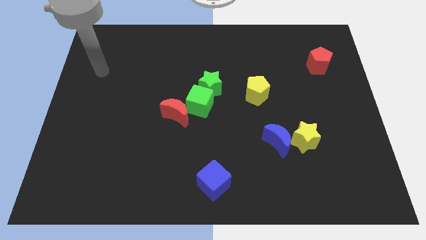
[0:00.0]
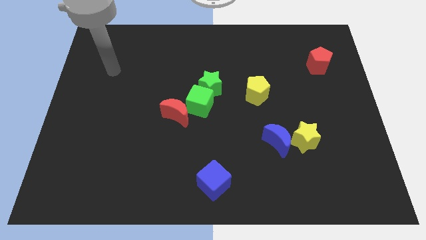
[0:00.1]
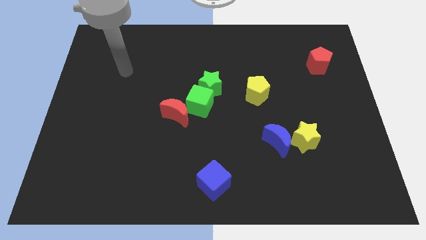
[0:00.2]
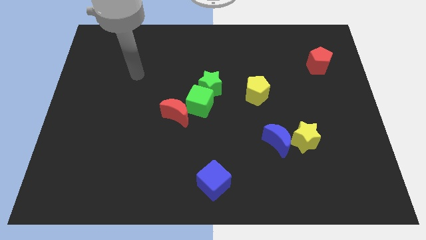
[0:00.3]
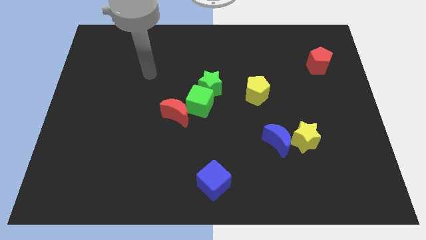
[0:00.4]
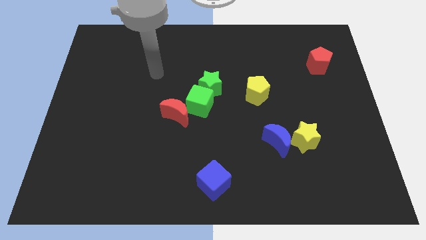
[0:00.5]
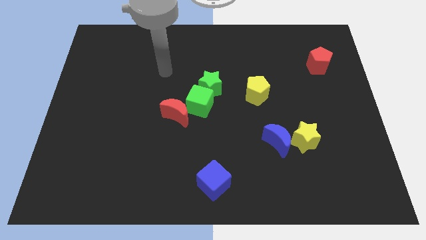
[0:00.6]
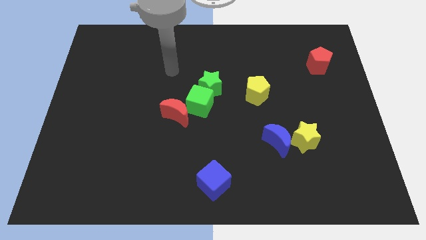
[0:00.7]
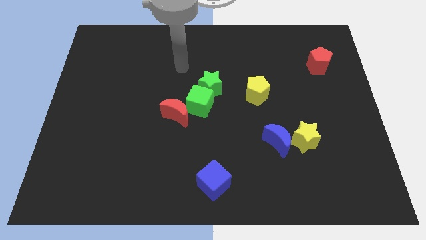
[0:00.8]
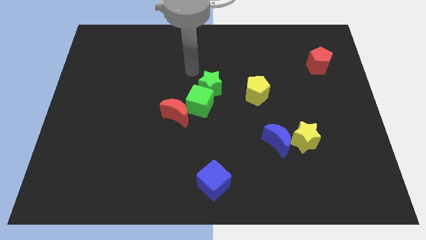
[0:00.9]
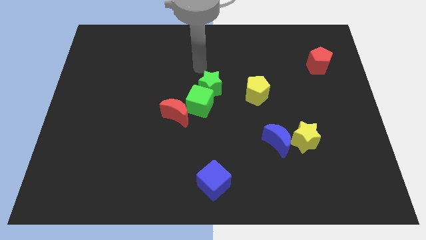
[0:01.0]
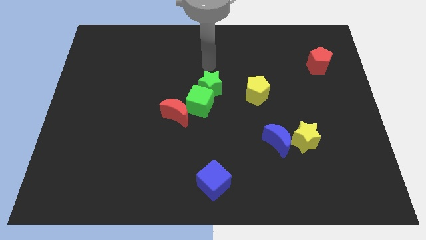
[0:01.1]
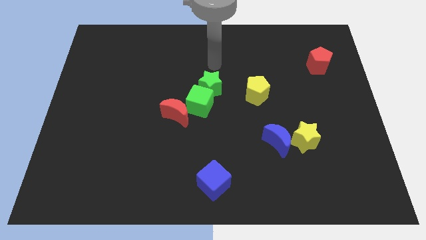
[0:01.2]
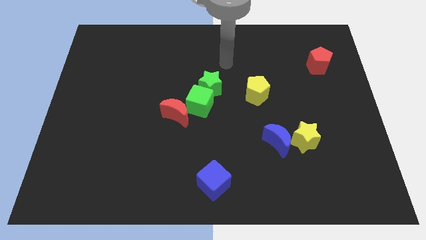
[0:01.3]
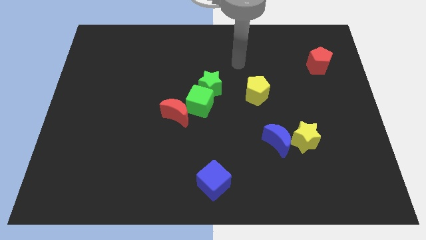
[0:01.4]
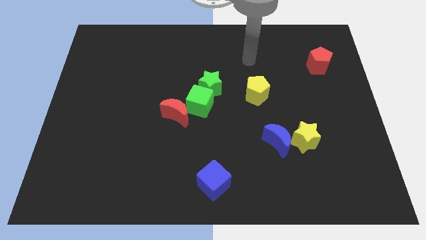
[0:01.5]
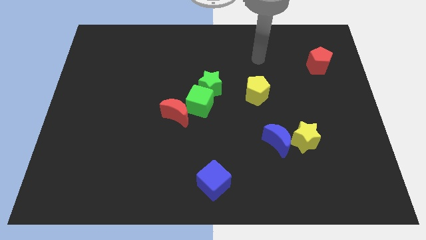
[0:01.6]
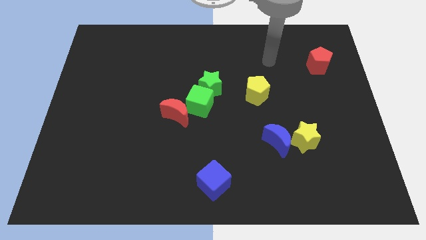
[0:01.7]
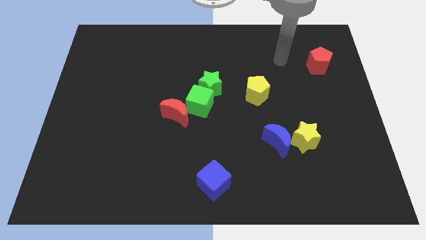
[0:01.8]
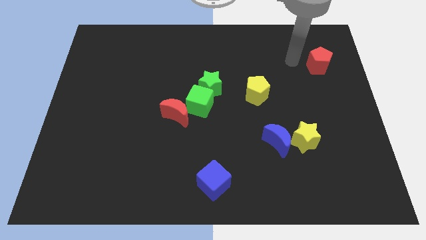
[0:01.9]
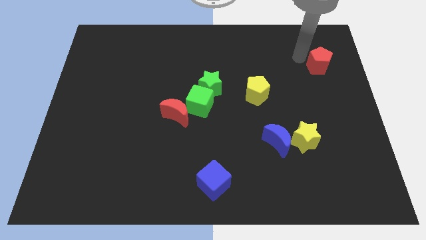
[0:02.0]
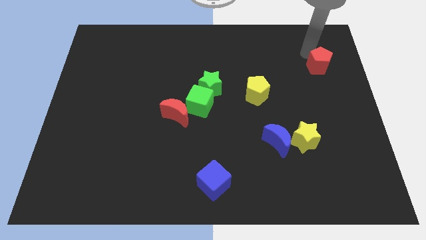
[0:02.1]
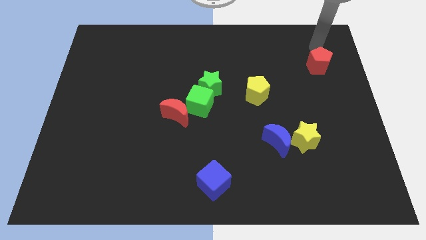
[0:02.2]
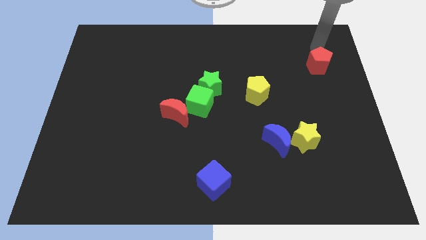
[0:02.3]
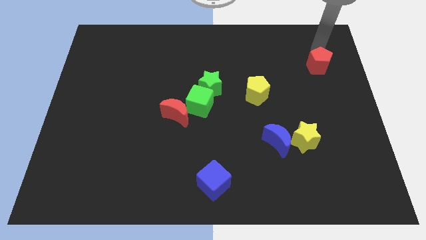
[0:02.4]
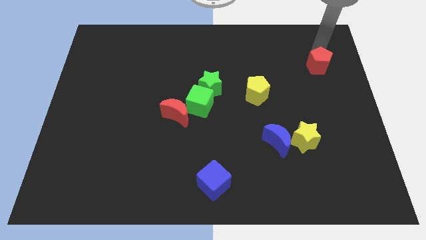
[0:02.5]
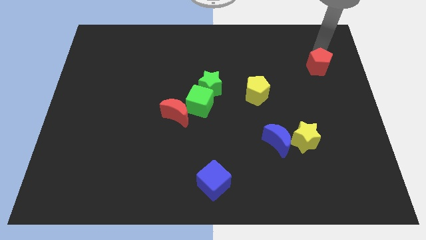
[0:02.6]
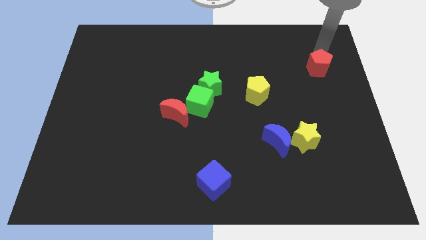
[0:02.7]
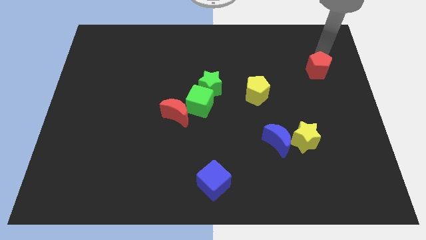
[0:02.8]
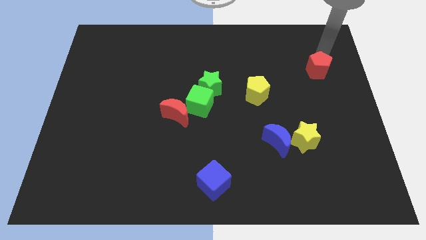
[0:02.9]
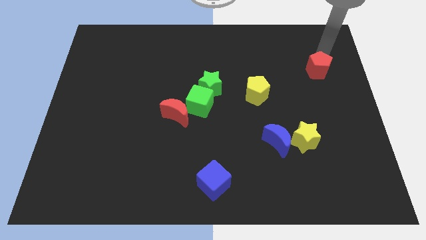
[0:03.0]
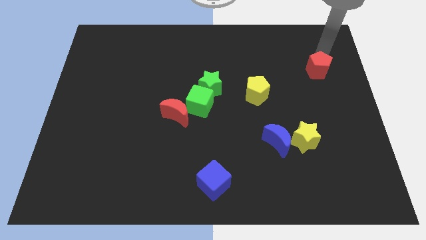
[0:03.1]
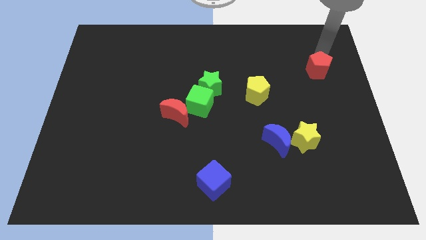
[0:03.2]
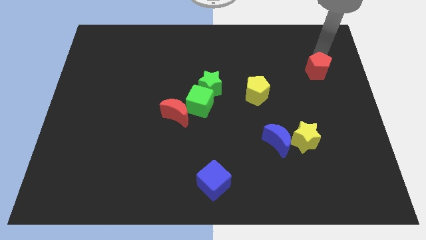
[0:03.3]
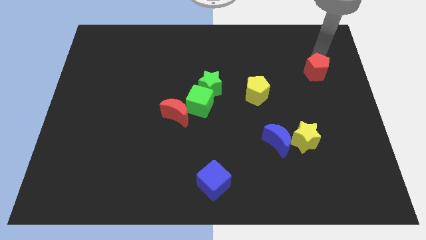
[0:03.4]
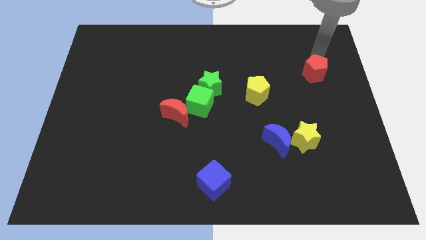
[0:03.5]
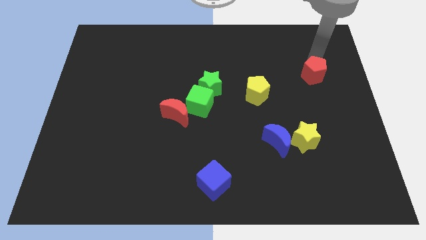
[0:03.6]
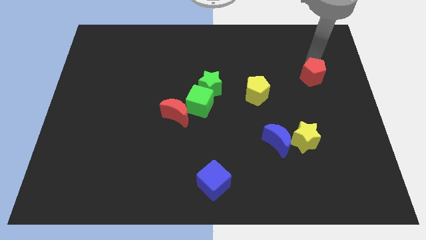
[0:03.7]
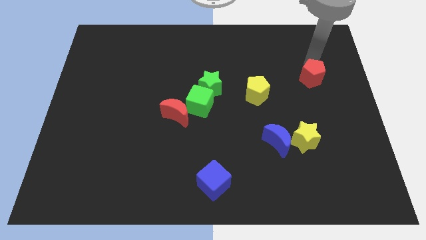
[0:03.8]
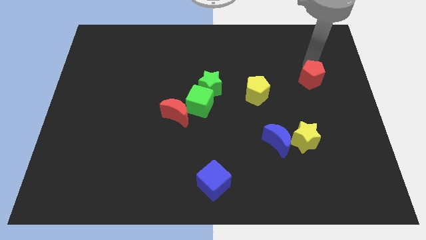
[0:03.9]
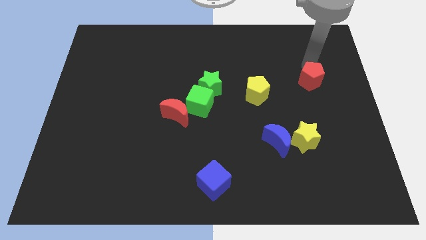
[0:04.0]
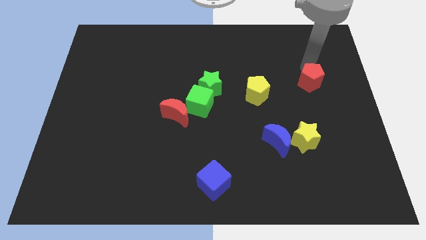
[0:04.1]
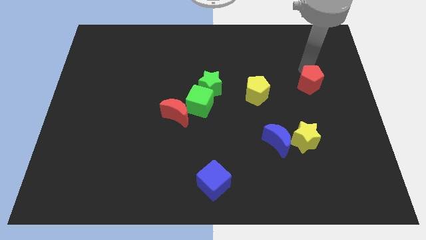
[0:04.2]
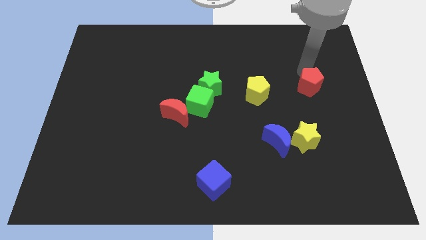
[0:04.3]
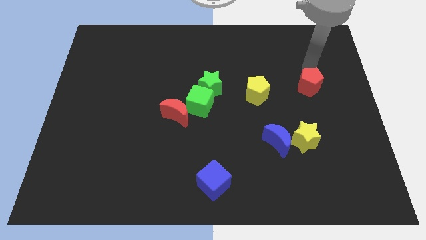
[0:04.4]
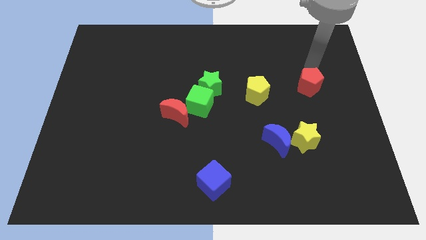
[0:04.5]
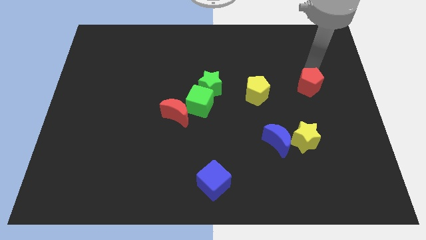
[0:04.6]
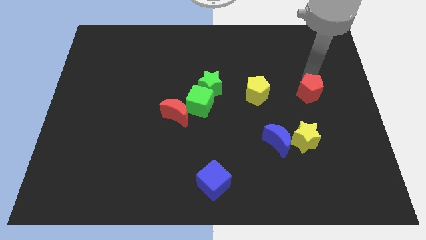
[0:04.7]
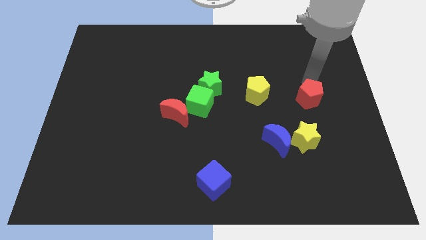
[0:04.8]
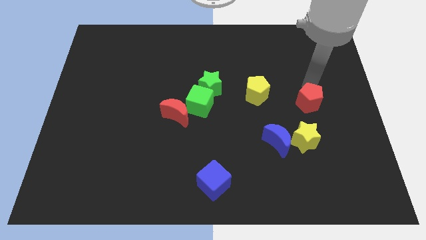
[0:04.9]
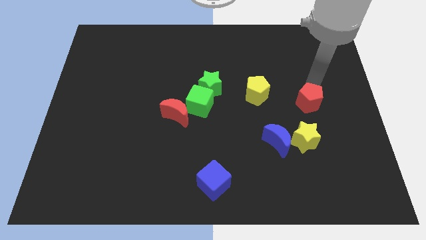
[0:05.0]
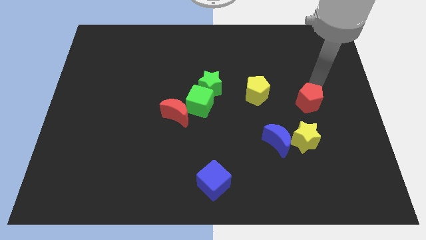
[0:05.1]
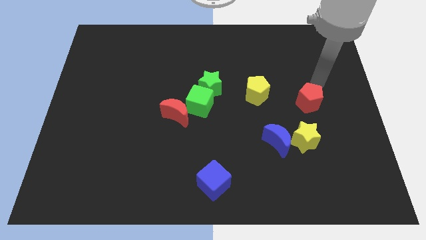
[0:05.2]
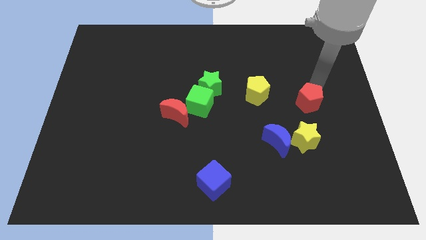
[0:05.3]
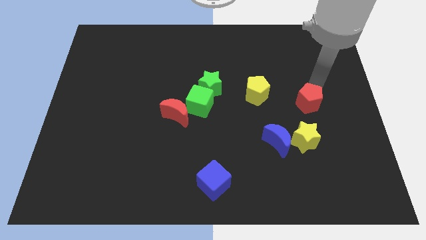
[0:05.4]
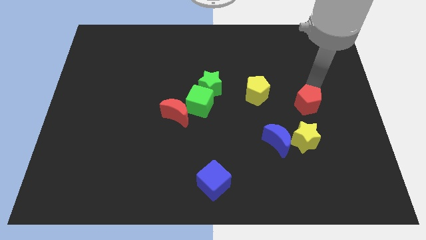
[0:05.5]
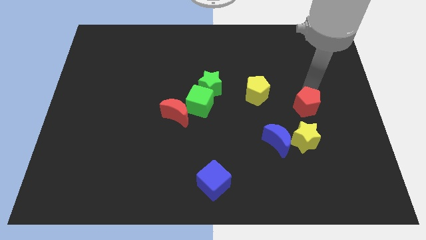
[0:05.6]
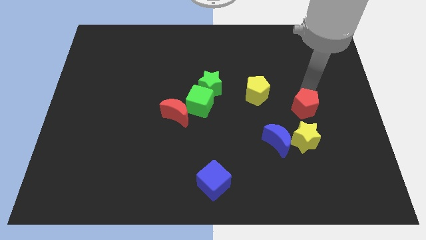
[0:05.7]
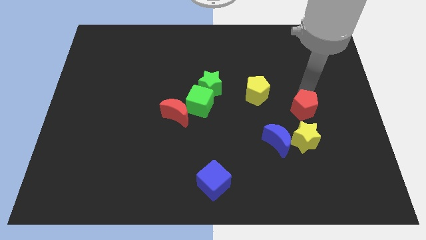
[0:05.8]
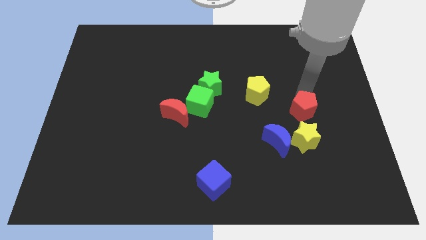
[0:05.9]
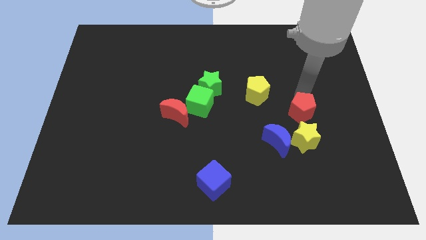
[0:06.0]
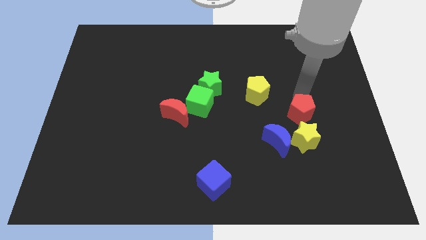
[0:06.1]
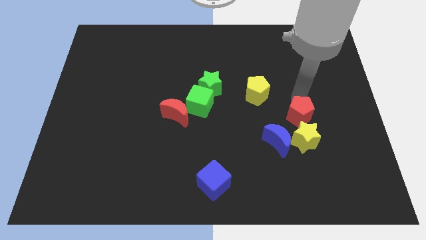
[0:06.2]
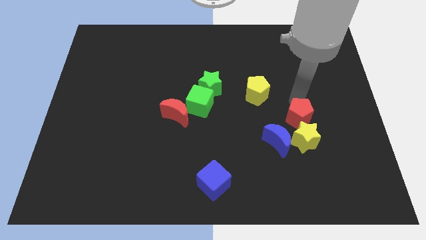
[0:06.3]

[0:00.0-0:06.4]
slide the red pentagon to the yellow star

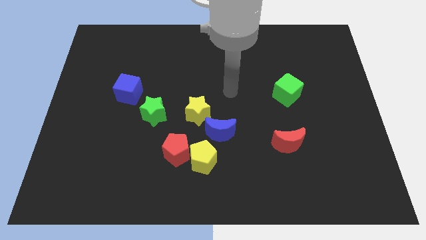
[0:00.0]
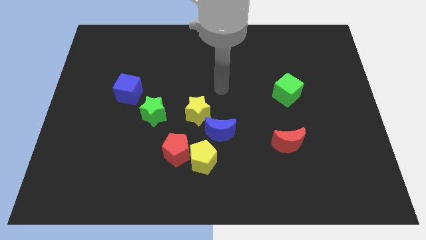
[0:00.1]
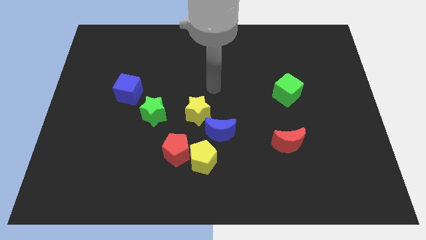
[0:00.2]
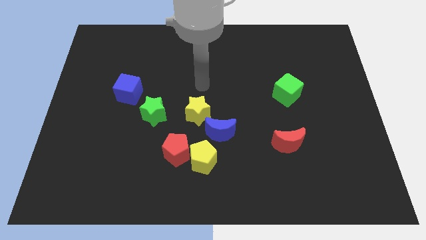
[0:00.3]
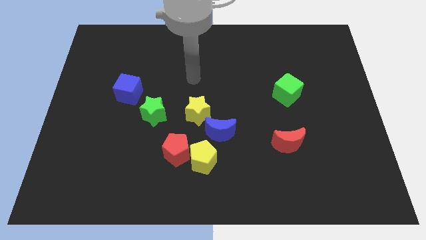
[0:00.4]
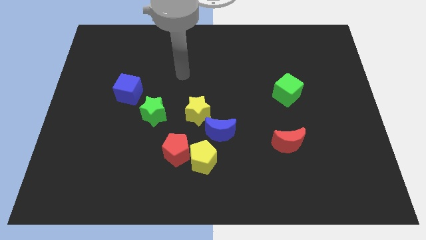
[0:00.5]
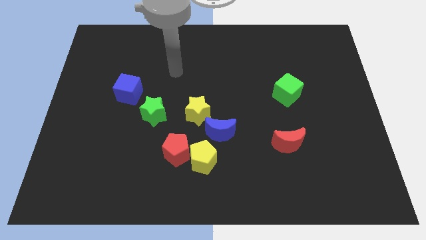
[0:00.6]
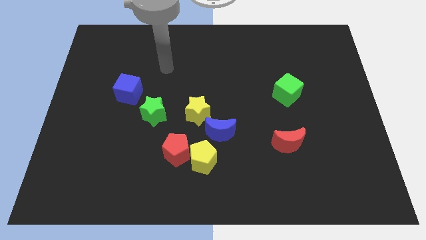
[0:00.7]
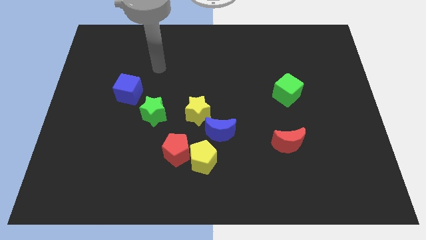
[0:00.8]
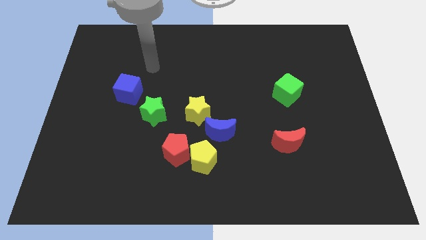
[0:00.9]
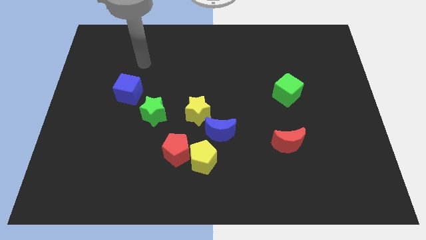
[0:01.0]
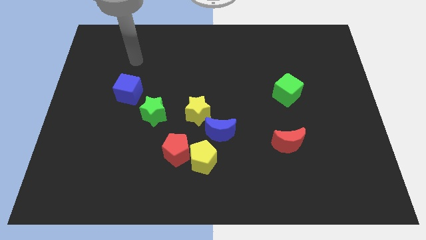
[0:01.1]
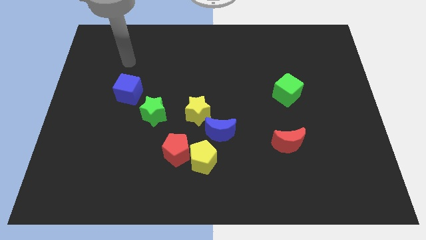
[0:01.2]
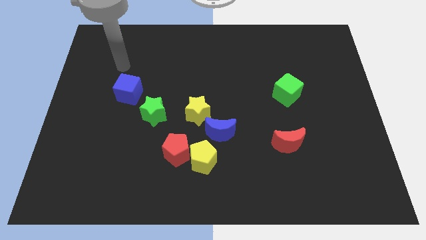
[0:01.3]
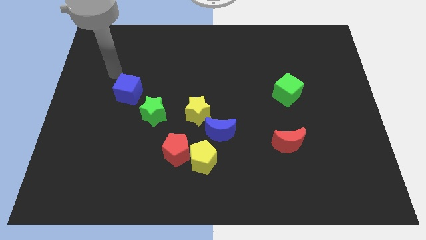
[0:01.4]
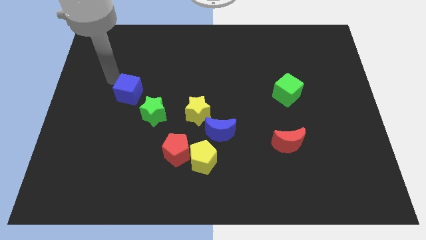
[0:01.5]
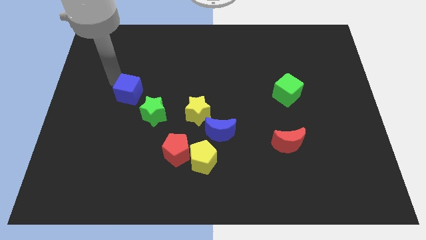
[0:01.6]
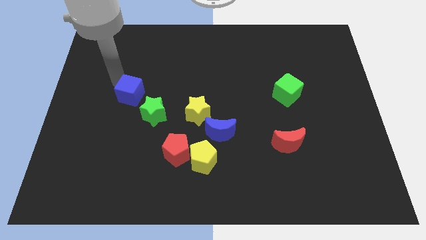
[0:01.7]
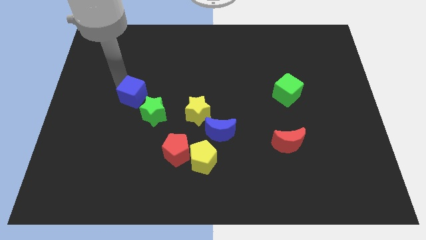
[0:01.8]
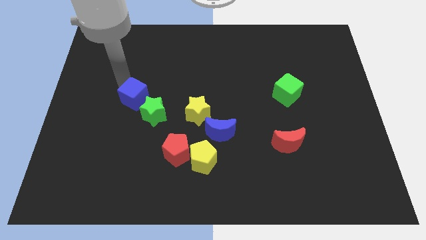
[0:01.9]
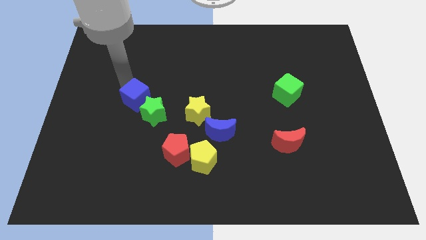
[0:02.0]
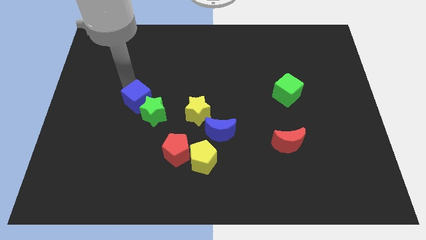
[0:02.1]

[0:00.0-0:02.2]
move the blue cube to the green star
